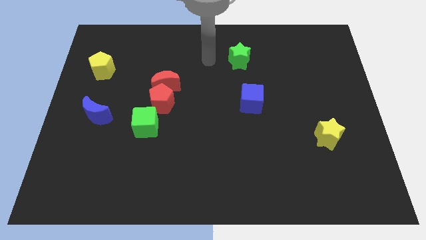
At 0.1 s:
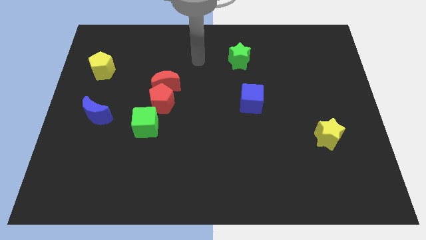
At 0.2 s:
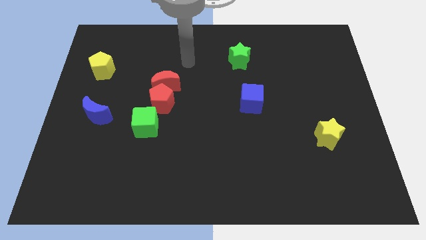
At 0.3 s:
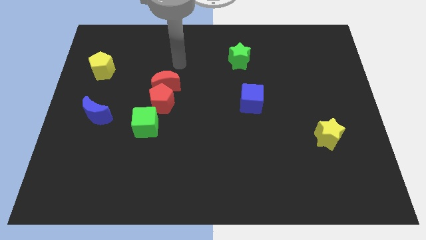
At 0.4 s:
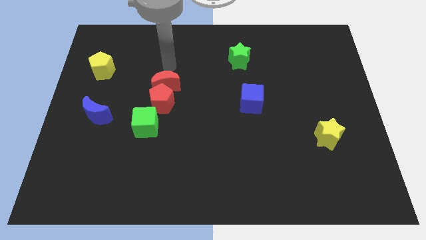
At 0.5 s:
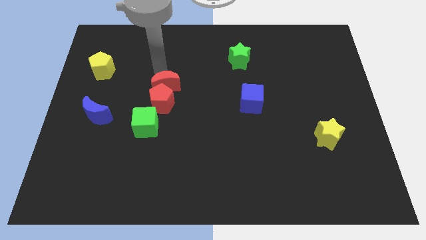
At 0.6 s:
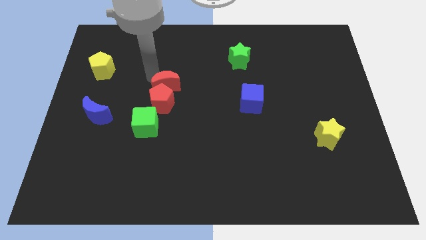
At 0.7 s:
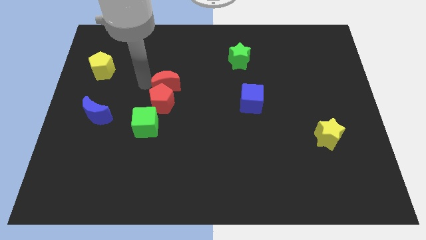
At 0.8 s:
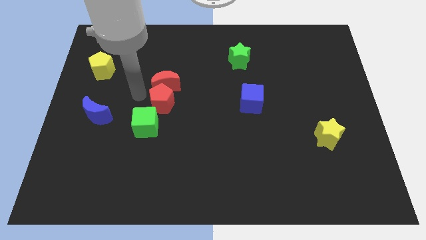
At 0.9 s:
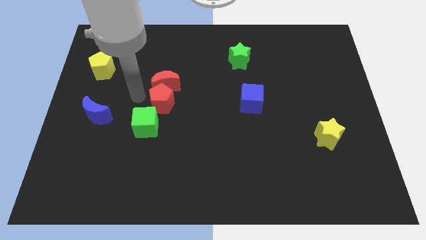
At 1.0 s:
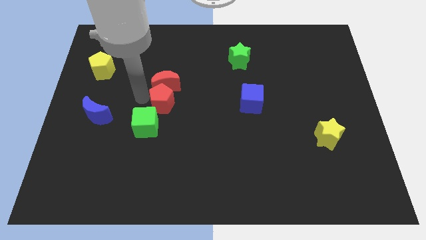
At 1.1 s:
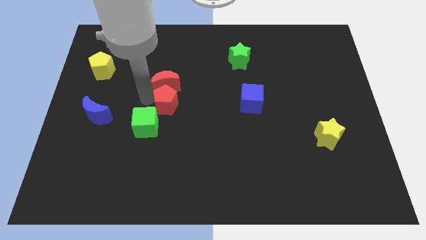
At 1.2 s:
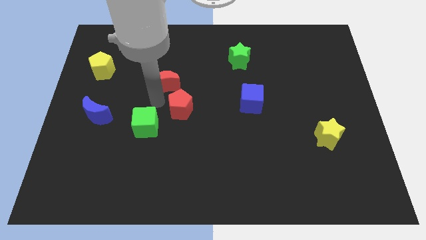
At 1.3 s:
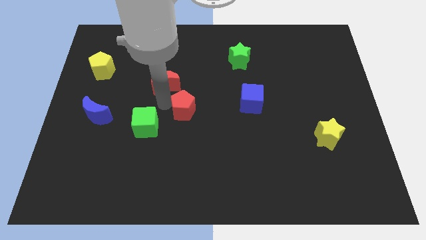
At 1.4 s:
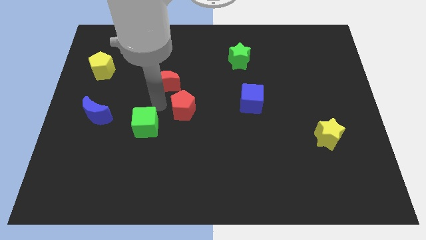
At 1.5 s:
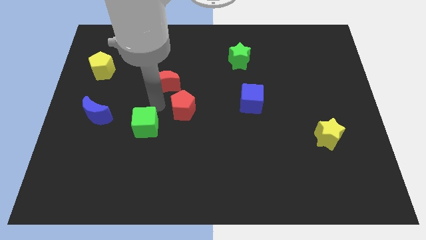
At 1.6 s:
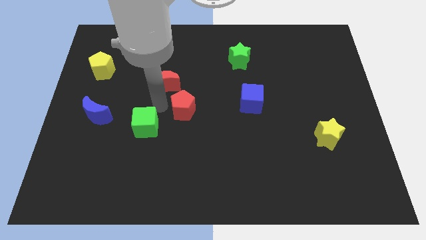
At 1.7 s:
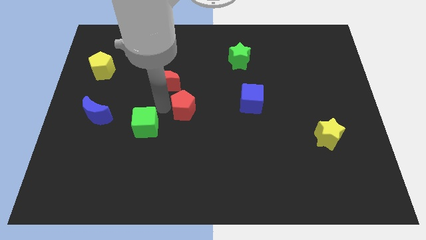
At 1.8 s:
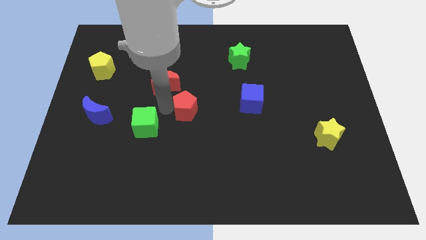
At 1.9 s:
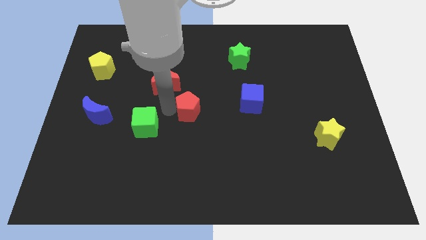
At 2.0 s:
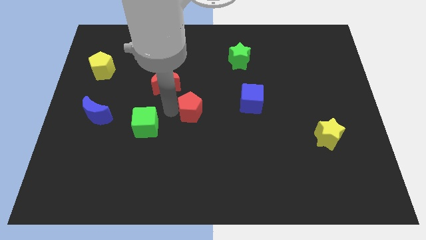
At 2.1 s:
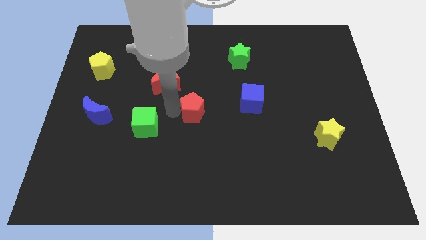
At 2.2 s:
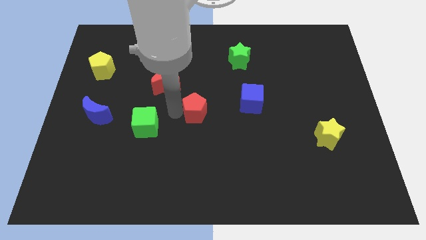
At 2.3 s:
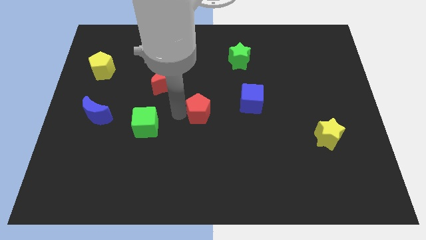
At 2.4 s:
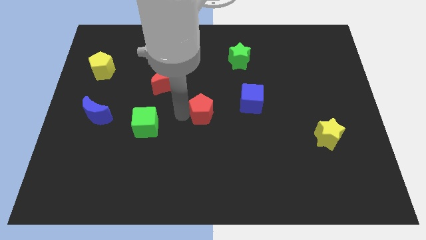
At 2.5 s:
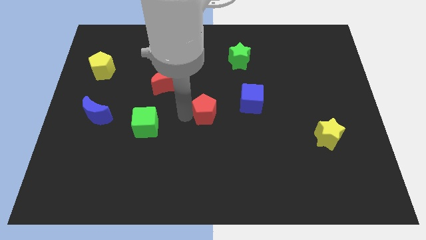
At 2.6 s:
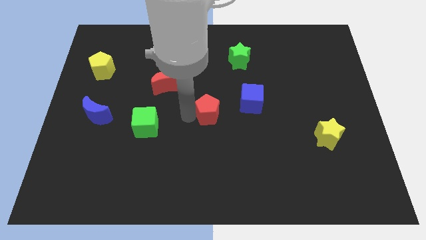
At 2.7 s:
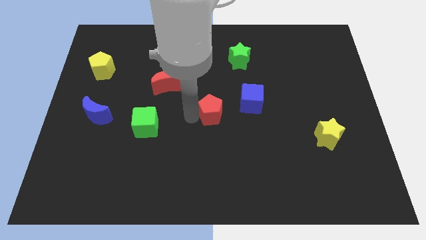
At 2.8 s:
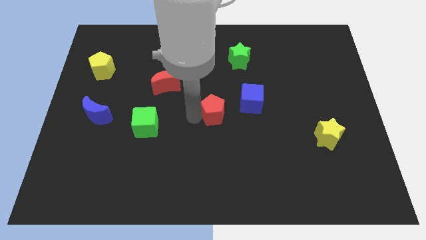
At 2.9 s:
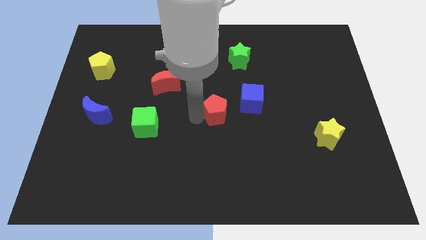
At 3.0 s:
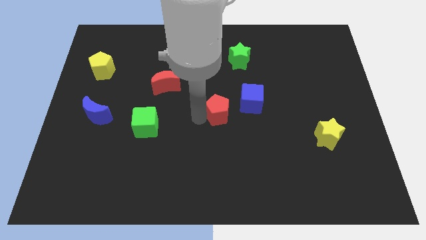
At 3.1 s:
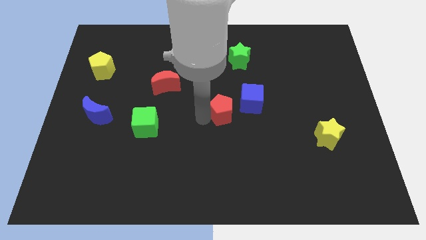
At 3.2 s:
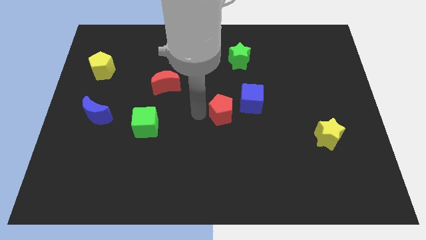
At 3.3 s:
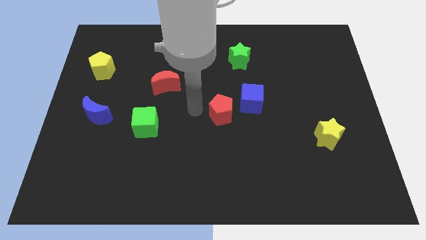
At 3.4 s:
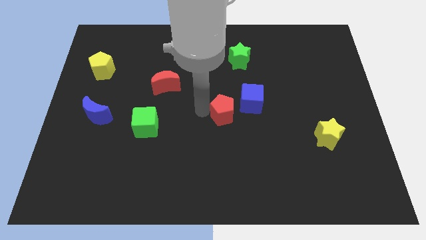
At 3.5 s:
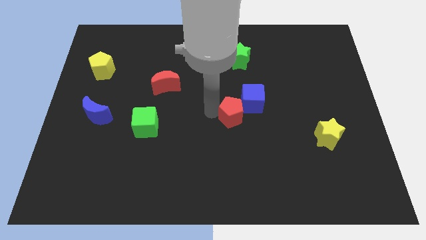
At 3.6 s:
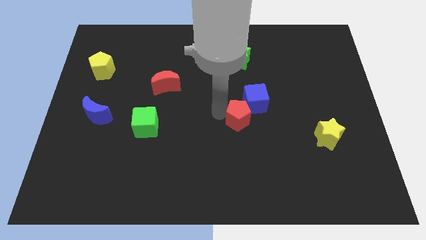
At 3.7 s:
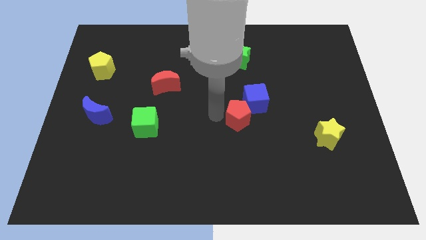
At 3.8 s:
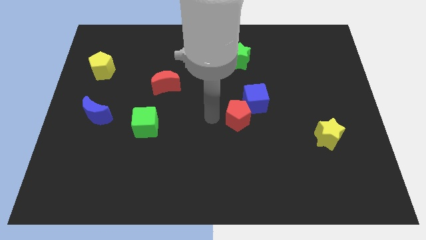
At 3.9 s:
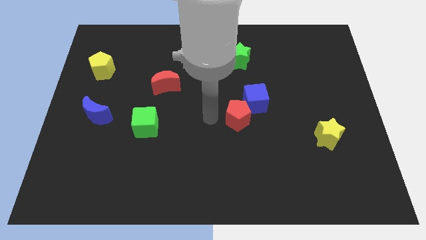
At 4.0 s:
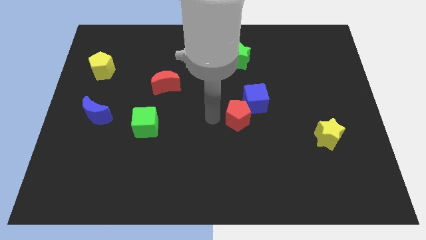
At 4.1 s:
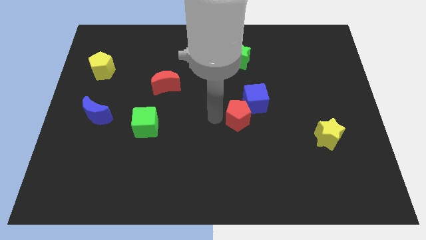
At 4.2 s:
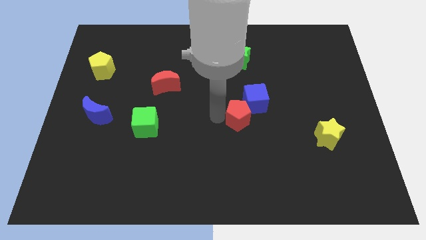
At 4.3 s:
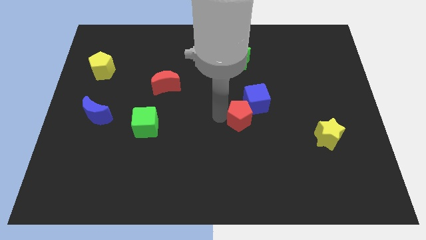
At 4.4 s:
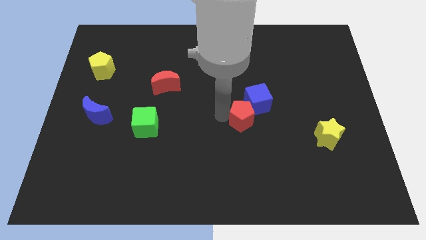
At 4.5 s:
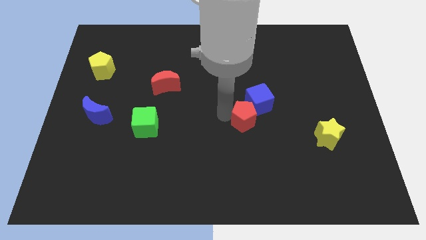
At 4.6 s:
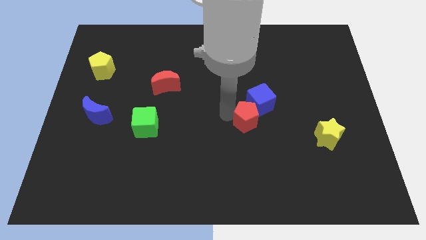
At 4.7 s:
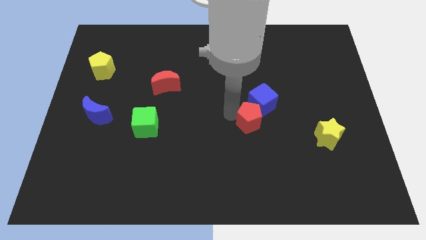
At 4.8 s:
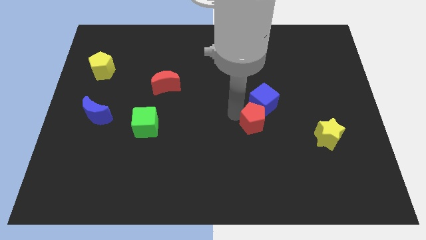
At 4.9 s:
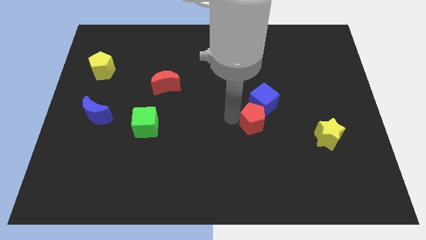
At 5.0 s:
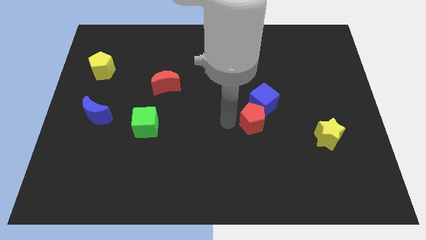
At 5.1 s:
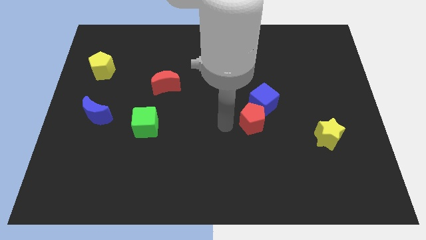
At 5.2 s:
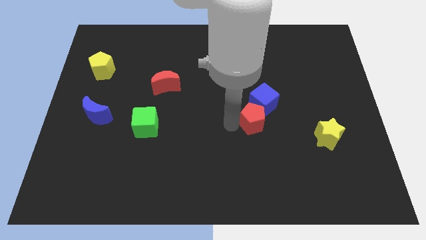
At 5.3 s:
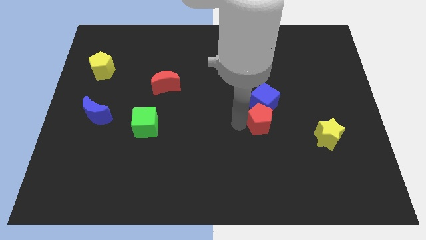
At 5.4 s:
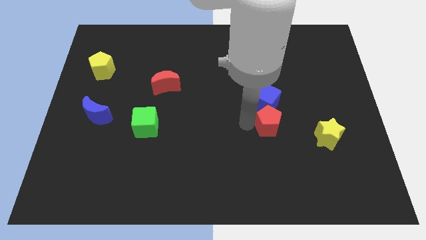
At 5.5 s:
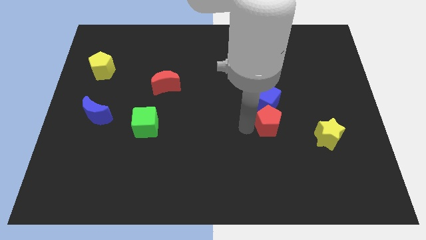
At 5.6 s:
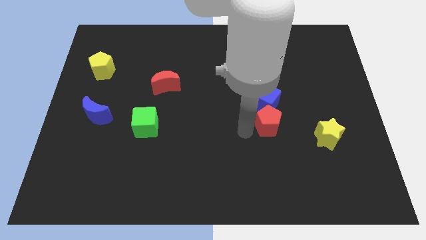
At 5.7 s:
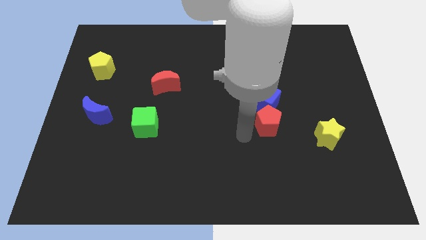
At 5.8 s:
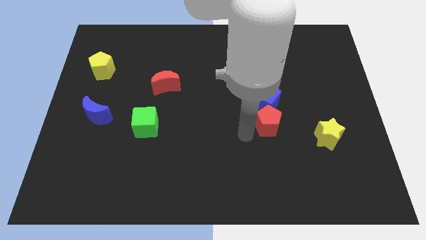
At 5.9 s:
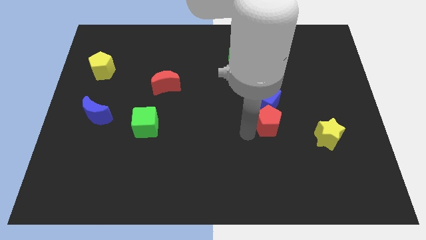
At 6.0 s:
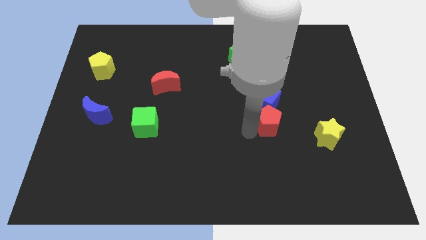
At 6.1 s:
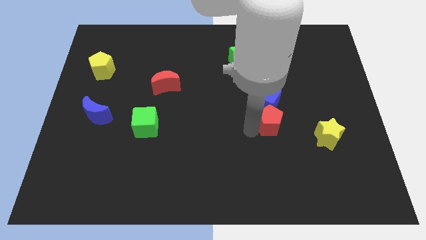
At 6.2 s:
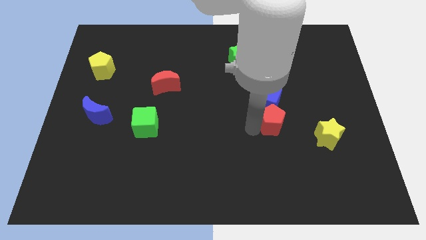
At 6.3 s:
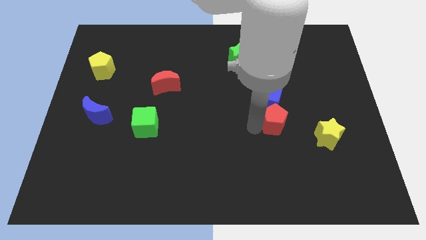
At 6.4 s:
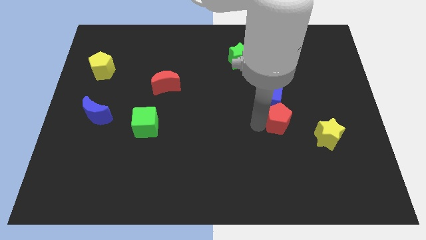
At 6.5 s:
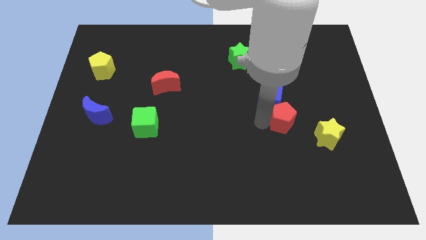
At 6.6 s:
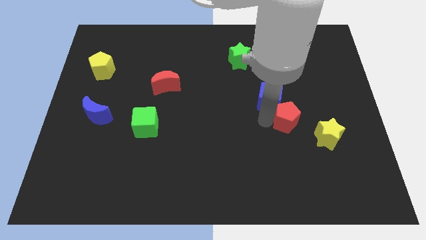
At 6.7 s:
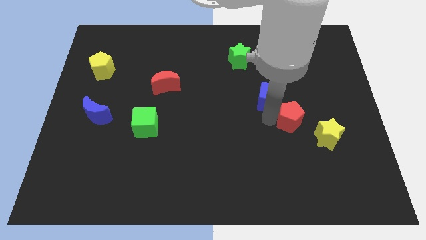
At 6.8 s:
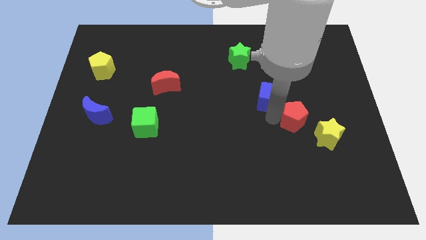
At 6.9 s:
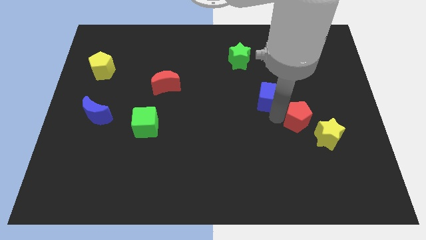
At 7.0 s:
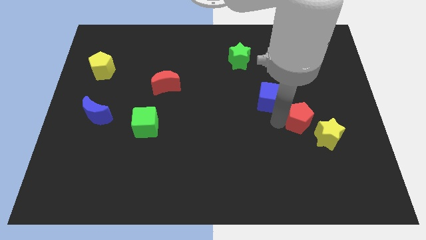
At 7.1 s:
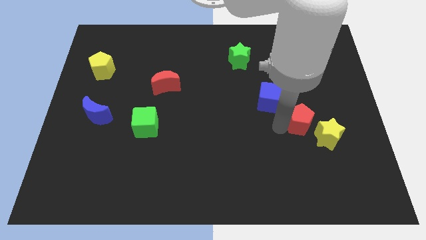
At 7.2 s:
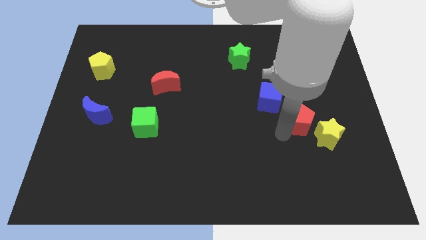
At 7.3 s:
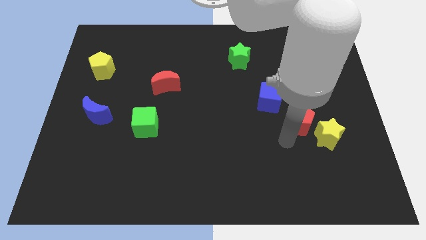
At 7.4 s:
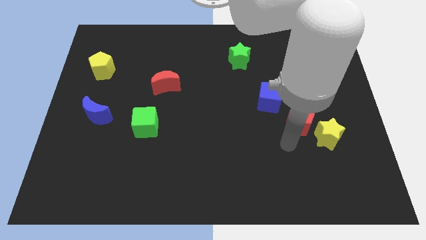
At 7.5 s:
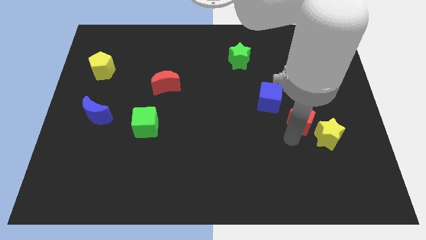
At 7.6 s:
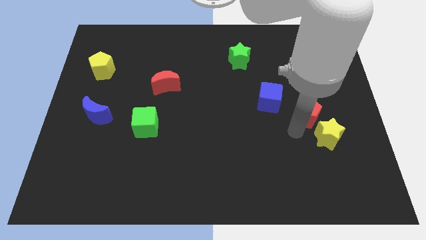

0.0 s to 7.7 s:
move the red pentagon just right of the blue cube
